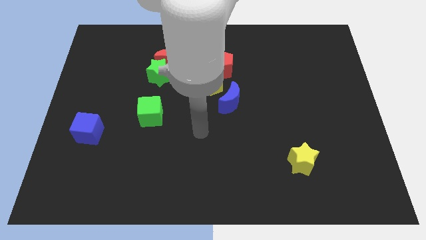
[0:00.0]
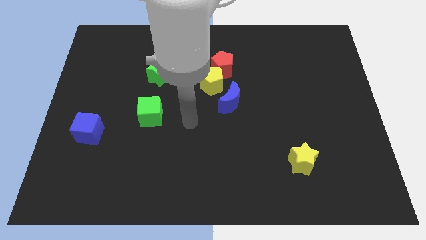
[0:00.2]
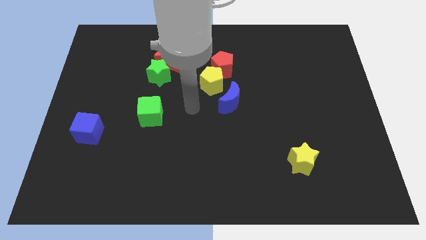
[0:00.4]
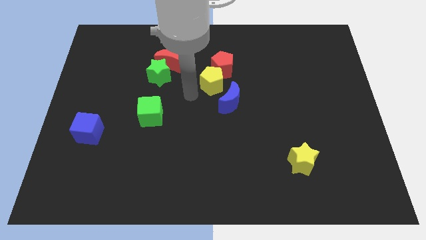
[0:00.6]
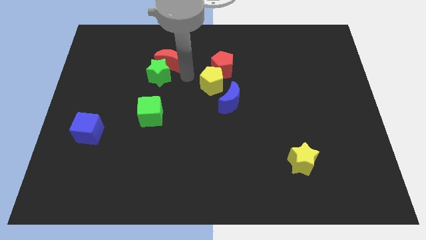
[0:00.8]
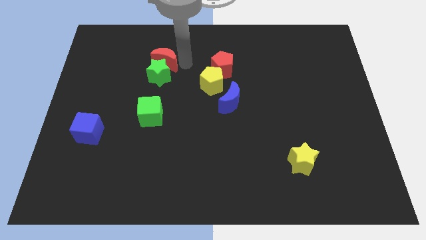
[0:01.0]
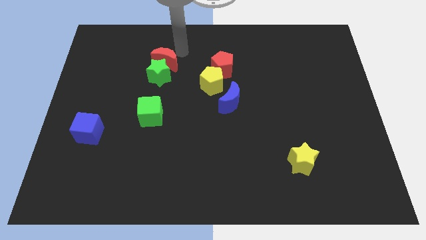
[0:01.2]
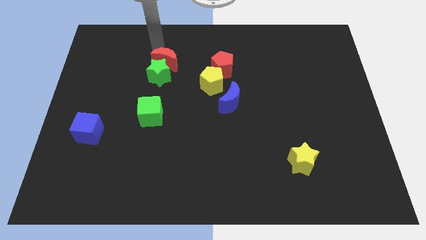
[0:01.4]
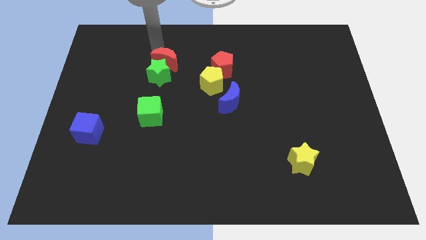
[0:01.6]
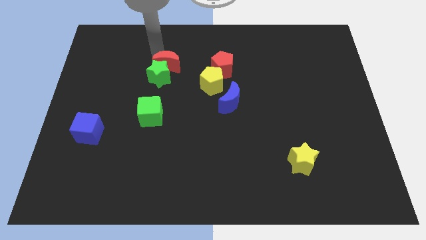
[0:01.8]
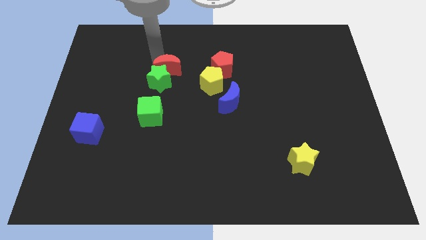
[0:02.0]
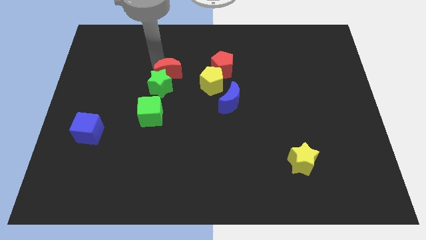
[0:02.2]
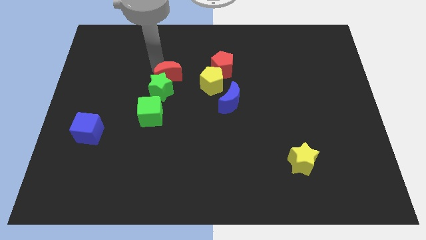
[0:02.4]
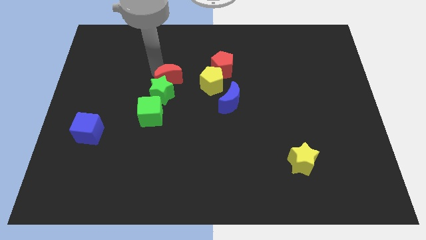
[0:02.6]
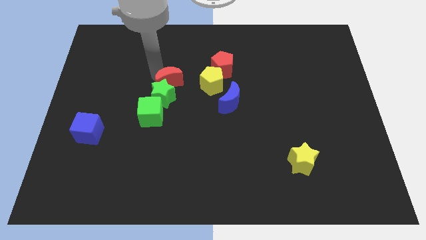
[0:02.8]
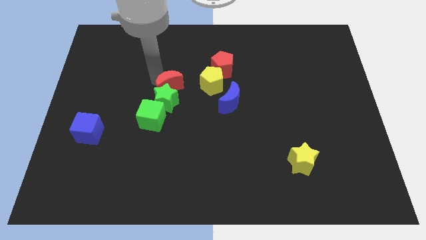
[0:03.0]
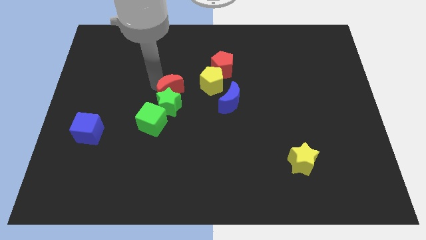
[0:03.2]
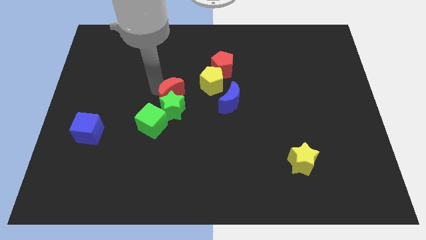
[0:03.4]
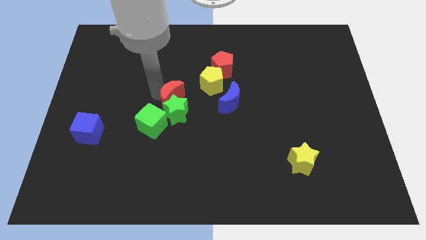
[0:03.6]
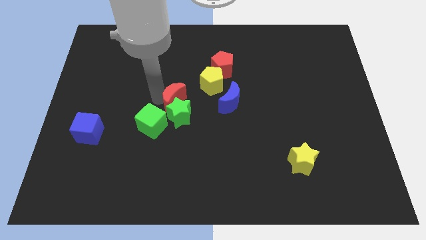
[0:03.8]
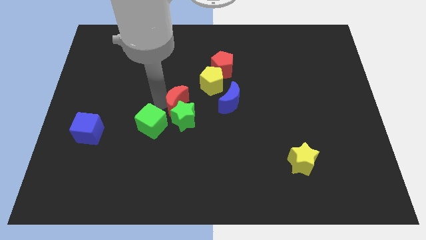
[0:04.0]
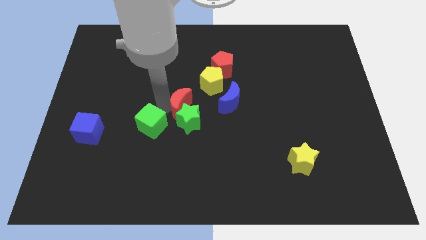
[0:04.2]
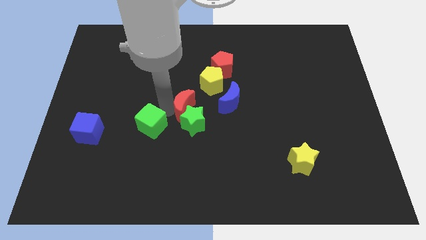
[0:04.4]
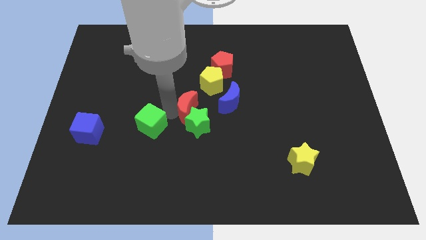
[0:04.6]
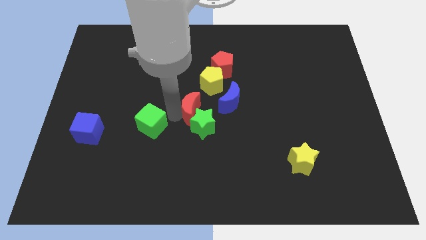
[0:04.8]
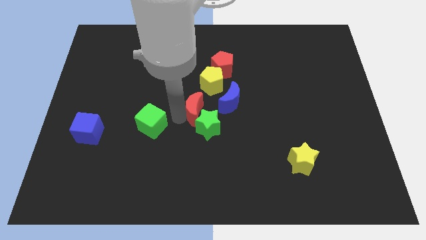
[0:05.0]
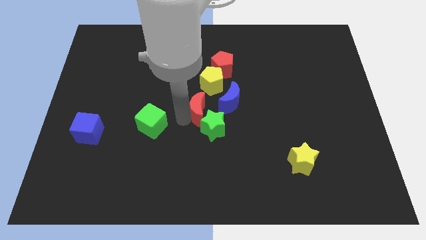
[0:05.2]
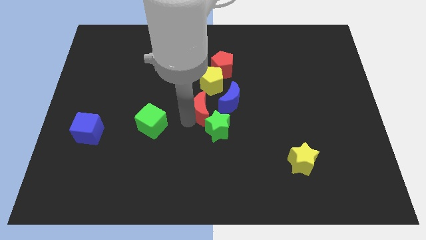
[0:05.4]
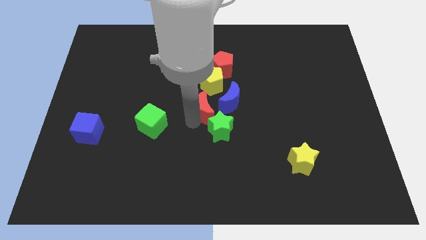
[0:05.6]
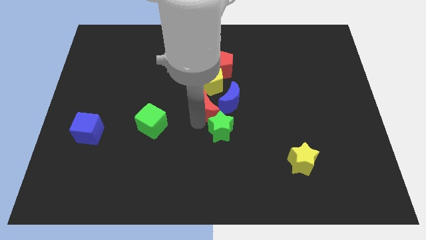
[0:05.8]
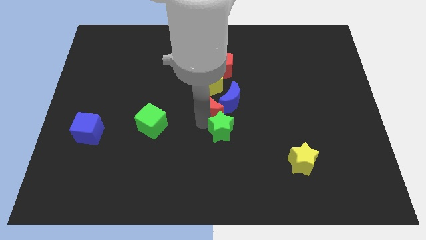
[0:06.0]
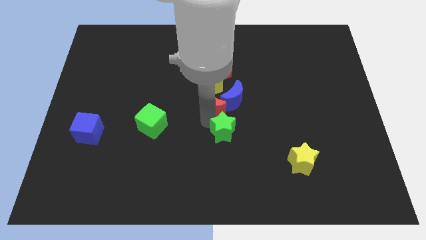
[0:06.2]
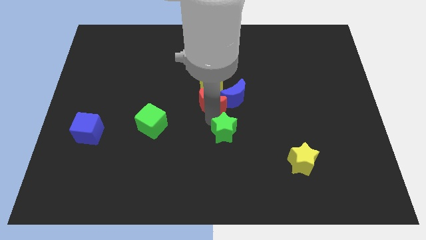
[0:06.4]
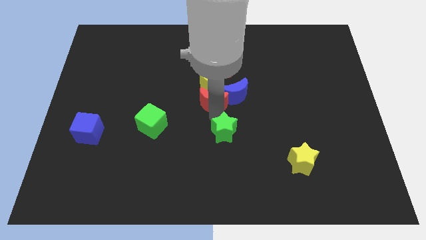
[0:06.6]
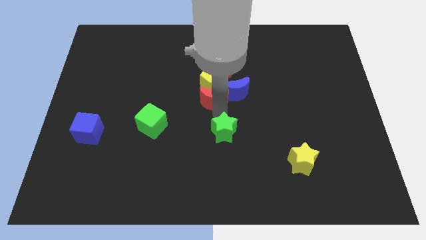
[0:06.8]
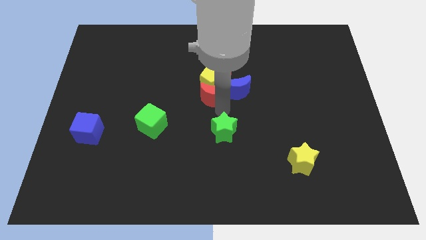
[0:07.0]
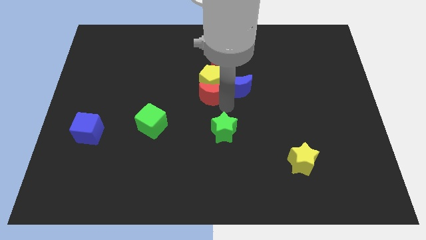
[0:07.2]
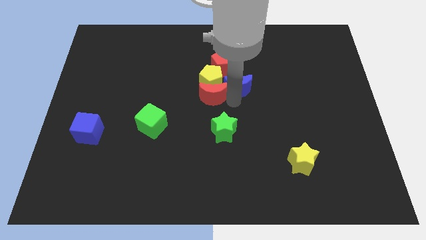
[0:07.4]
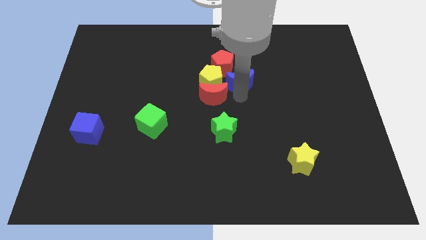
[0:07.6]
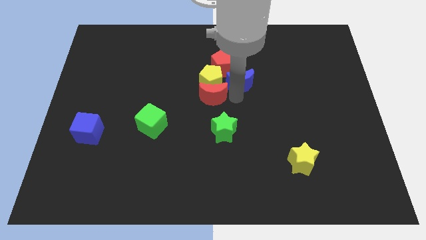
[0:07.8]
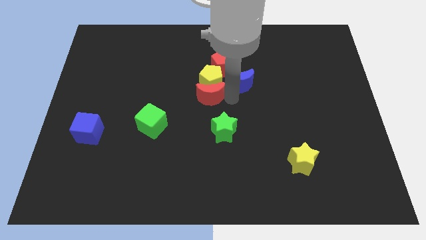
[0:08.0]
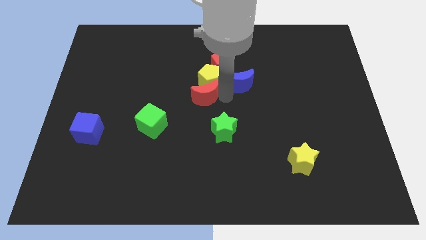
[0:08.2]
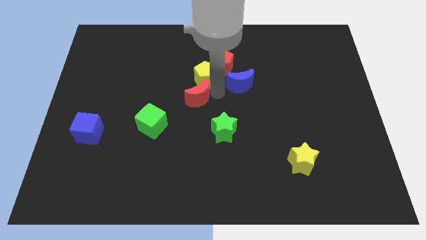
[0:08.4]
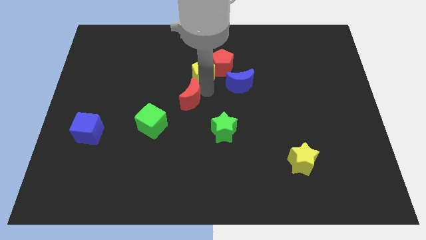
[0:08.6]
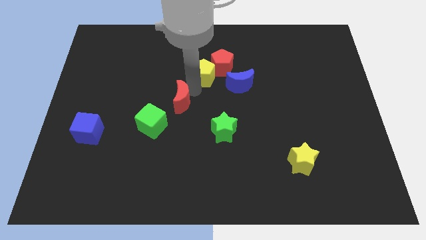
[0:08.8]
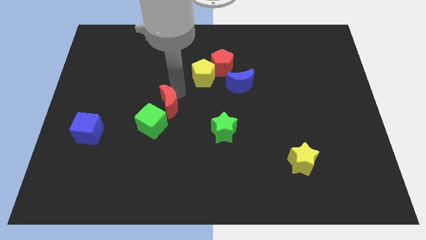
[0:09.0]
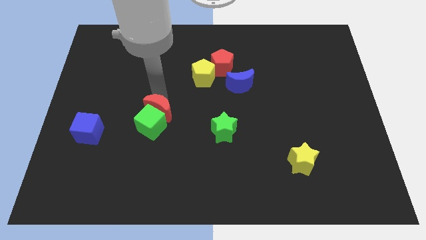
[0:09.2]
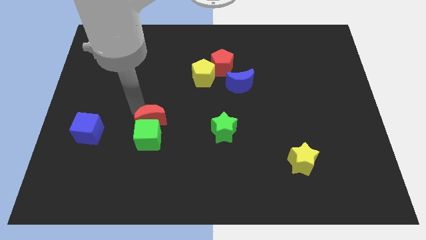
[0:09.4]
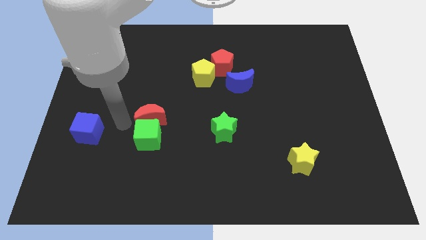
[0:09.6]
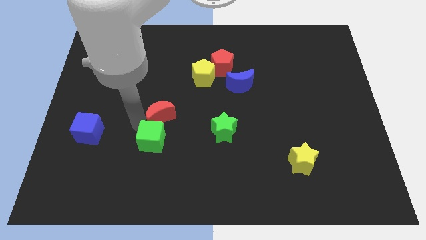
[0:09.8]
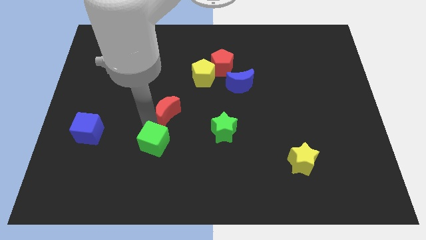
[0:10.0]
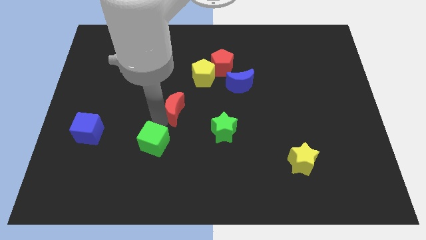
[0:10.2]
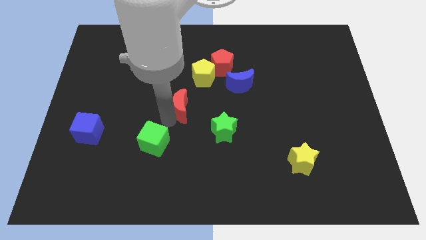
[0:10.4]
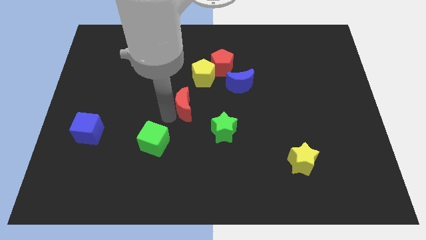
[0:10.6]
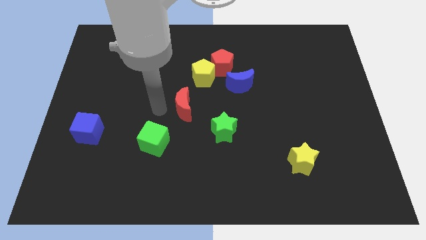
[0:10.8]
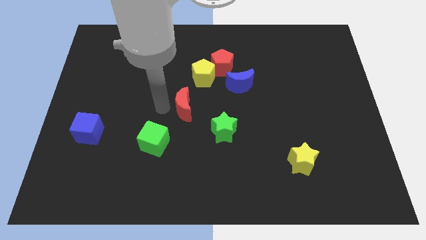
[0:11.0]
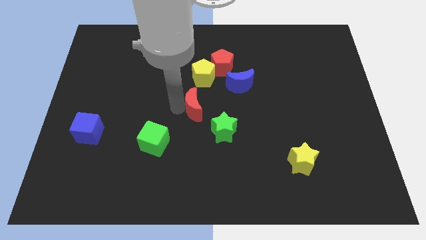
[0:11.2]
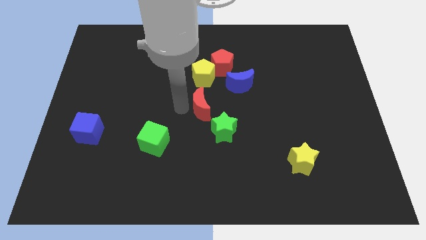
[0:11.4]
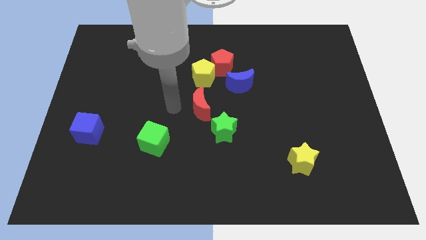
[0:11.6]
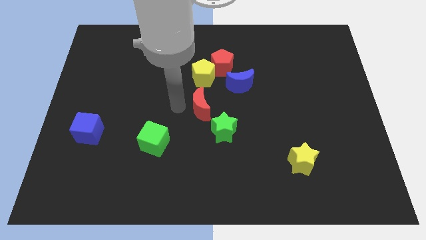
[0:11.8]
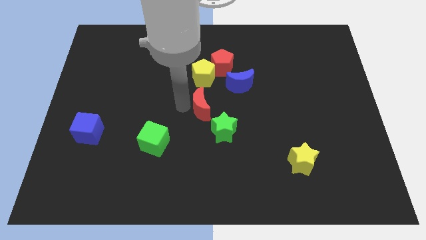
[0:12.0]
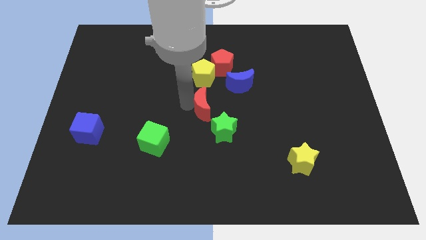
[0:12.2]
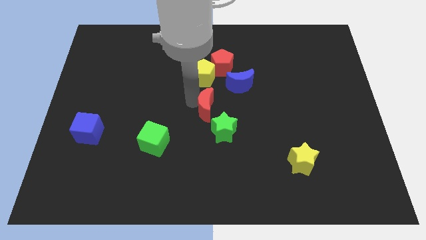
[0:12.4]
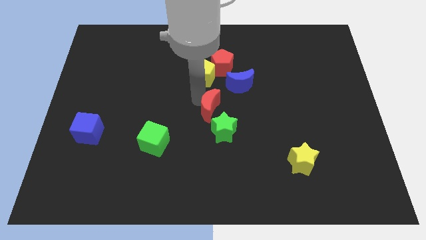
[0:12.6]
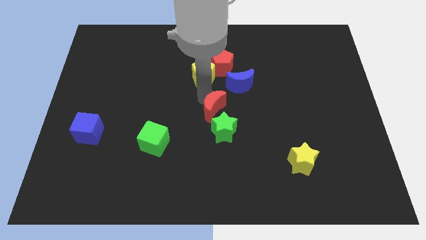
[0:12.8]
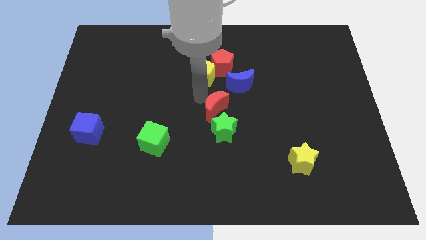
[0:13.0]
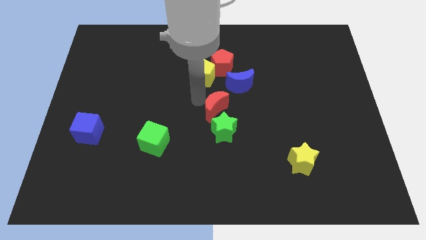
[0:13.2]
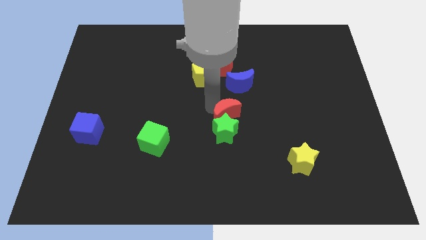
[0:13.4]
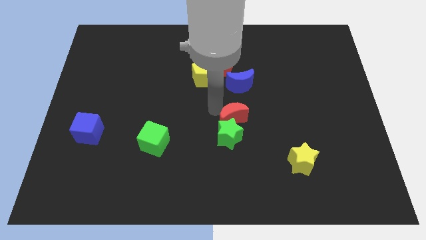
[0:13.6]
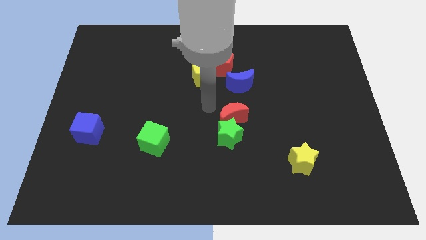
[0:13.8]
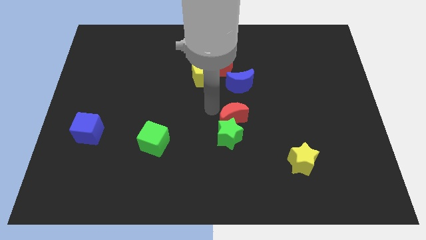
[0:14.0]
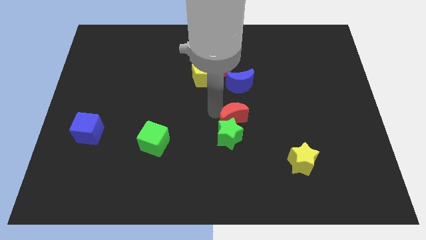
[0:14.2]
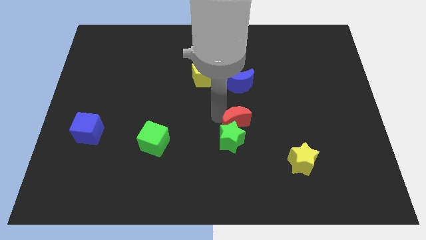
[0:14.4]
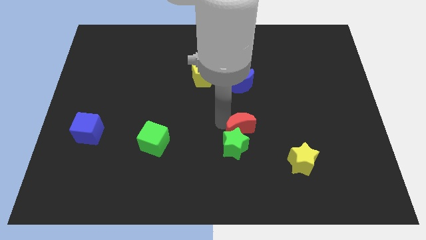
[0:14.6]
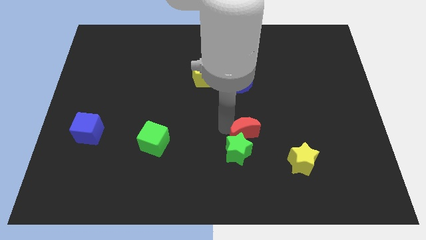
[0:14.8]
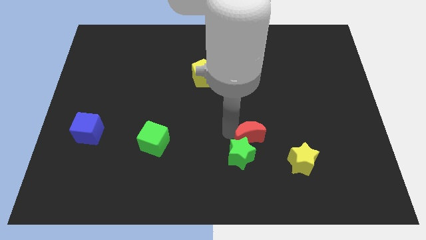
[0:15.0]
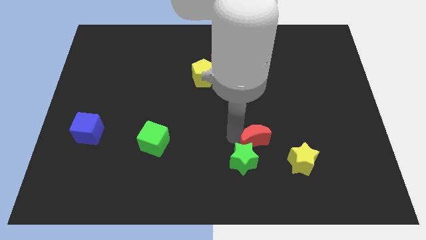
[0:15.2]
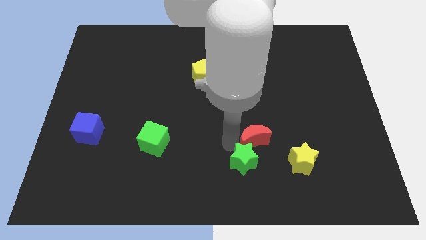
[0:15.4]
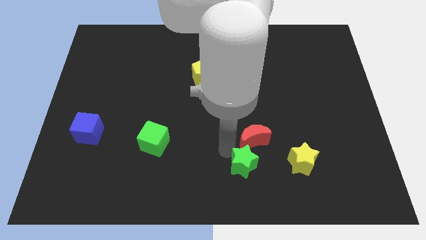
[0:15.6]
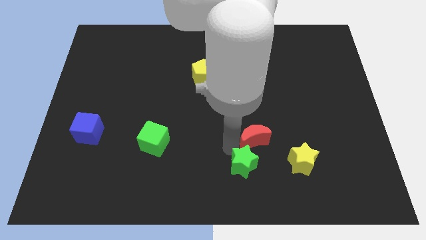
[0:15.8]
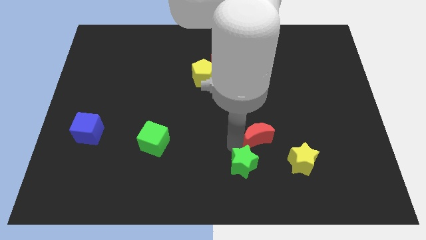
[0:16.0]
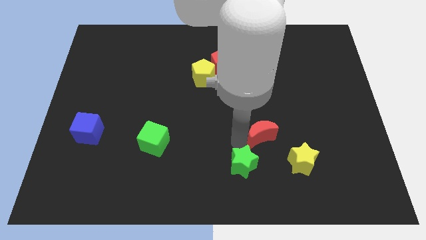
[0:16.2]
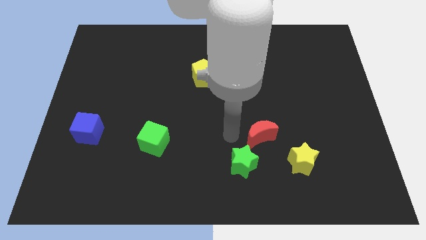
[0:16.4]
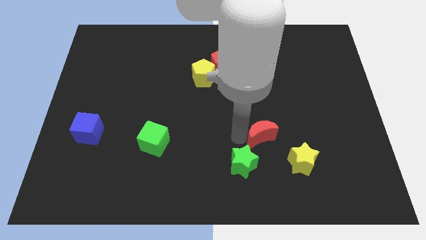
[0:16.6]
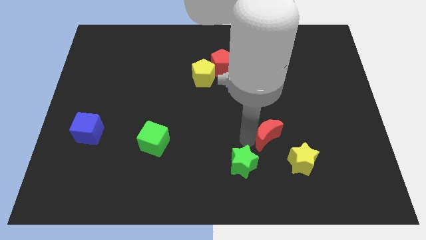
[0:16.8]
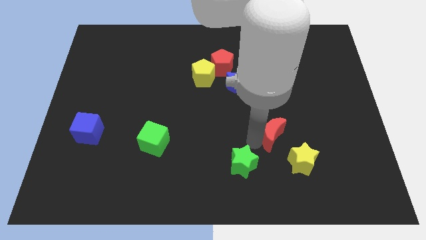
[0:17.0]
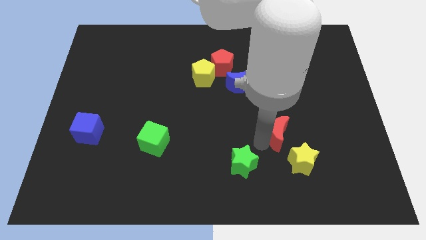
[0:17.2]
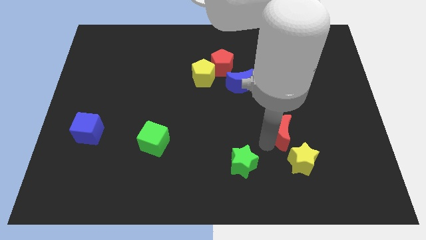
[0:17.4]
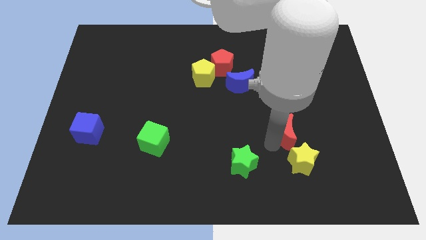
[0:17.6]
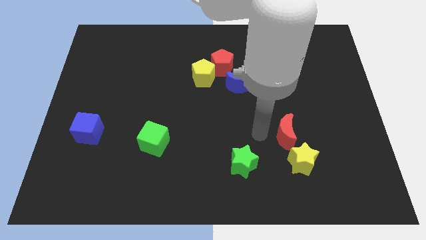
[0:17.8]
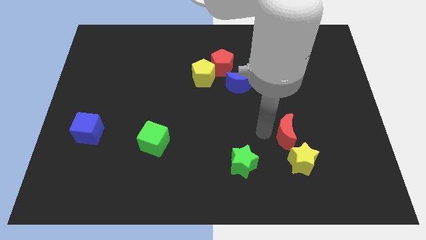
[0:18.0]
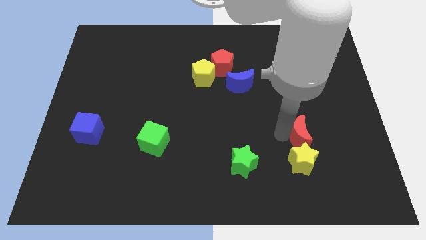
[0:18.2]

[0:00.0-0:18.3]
push the red moon diagonally up and to the right of the yellow star
